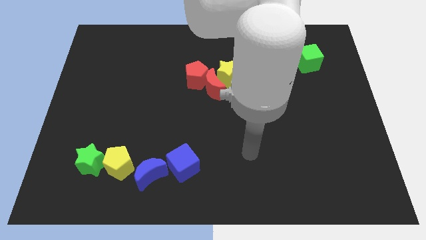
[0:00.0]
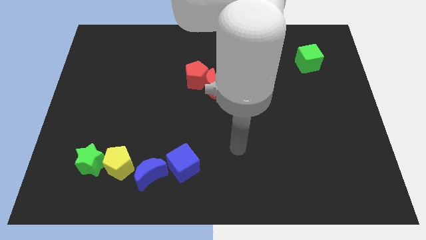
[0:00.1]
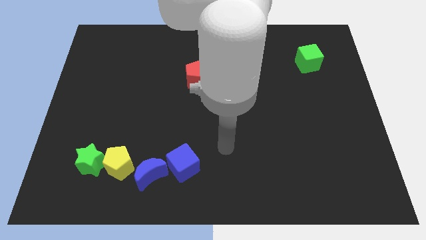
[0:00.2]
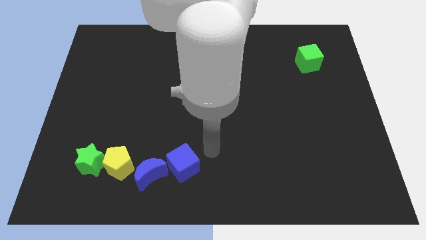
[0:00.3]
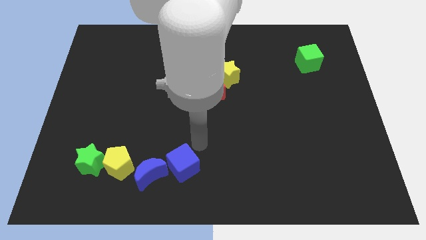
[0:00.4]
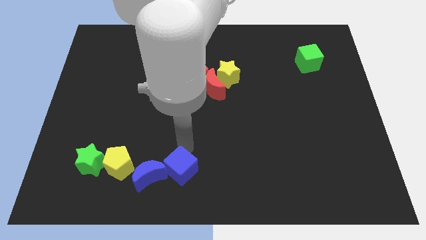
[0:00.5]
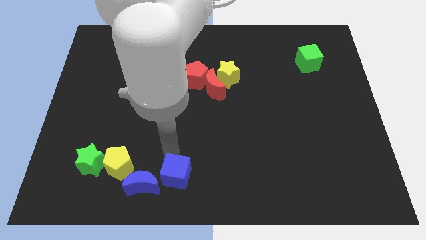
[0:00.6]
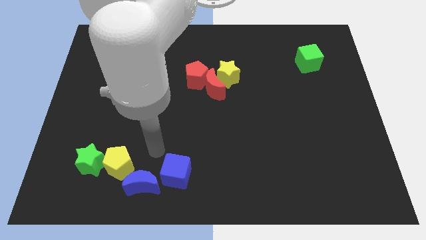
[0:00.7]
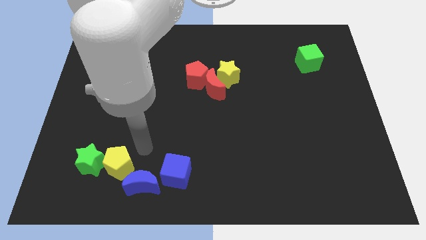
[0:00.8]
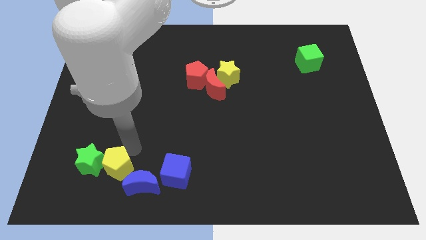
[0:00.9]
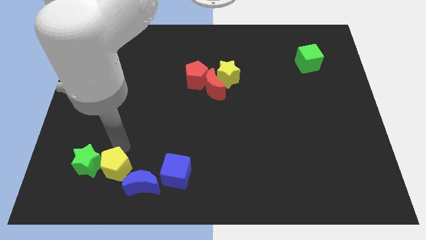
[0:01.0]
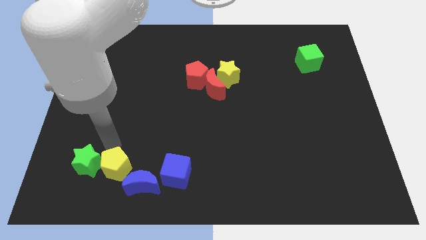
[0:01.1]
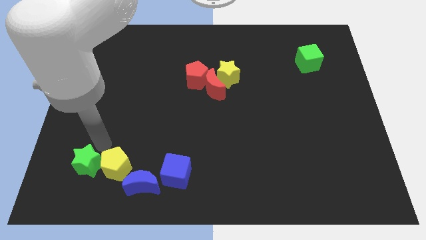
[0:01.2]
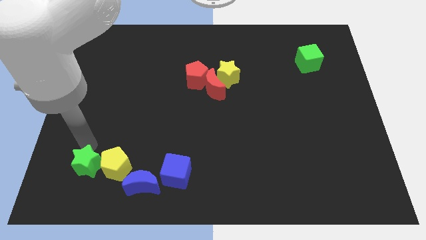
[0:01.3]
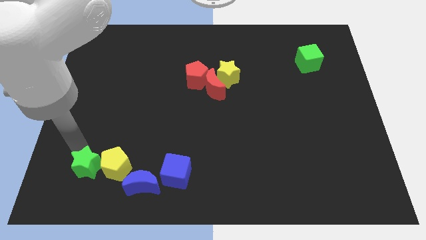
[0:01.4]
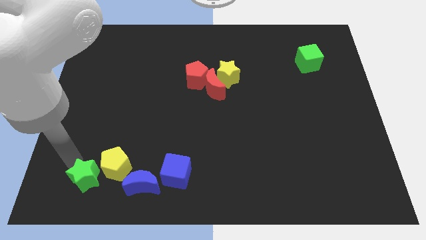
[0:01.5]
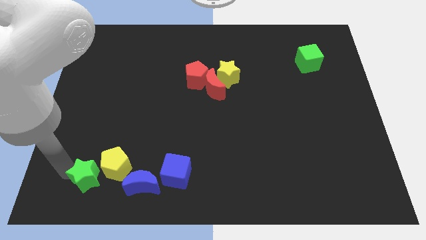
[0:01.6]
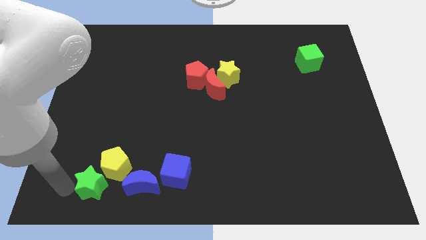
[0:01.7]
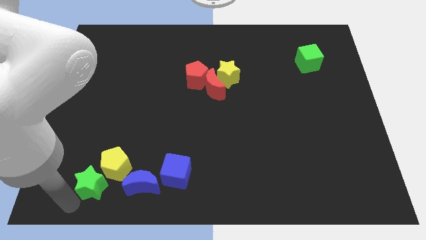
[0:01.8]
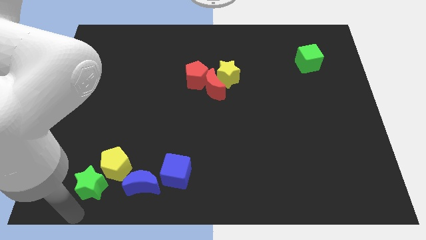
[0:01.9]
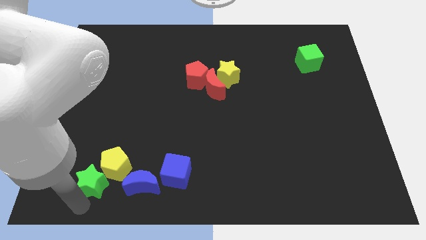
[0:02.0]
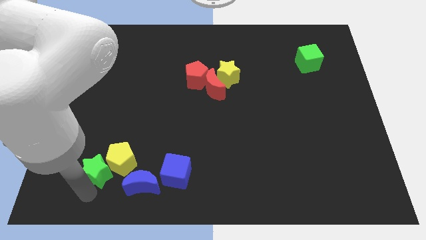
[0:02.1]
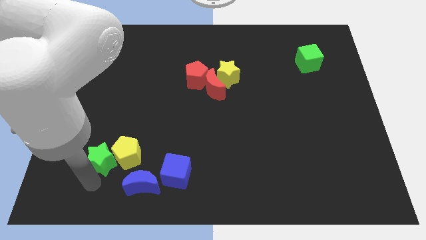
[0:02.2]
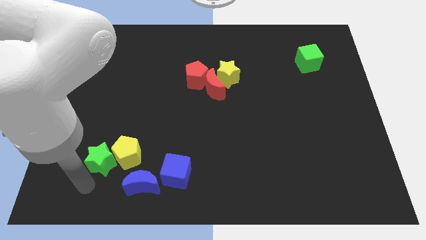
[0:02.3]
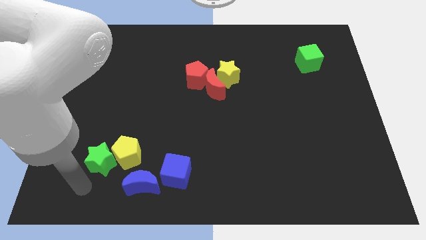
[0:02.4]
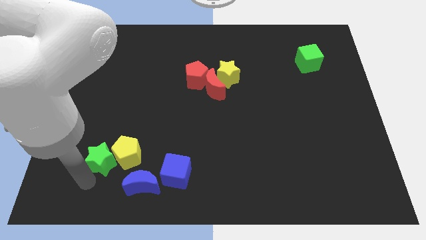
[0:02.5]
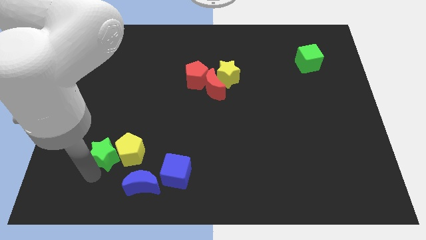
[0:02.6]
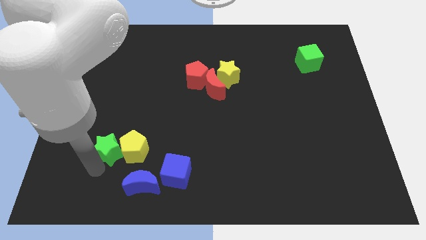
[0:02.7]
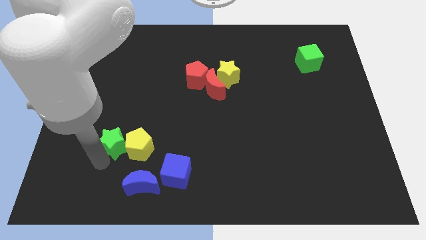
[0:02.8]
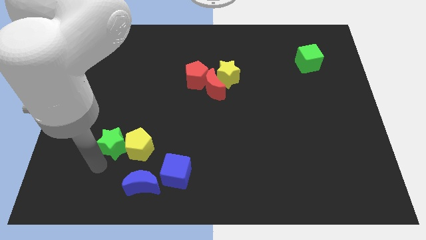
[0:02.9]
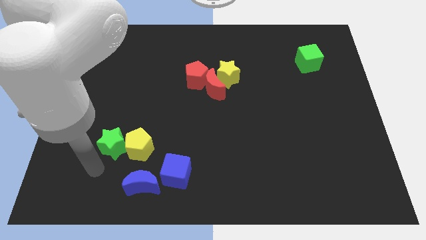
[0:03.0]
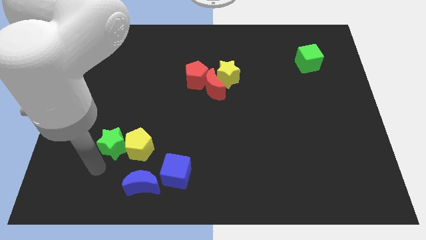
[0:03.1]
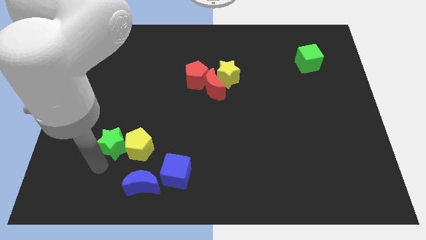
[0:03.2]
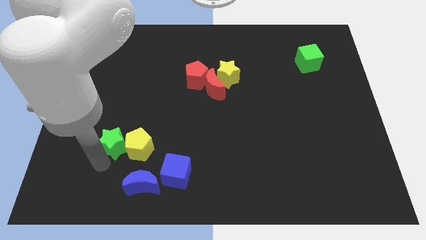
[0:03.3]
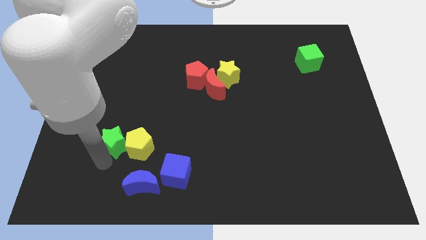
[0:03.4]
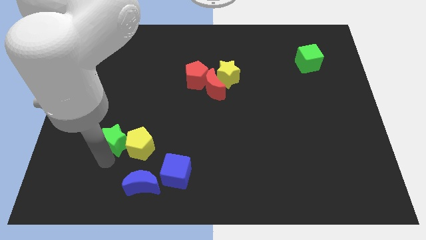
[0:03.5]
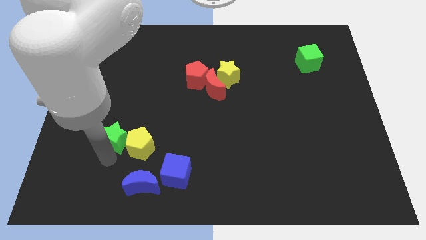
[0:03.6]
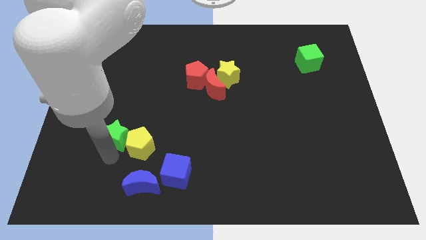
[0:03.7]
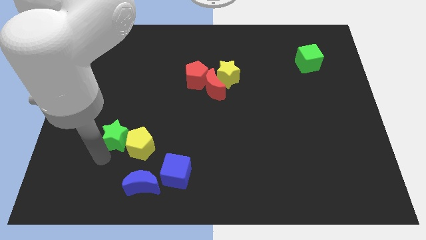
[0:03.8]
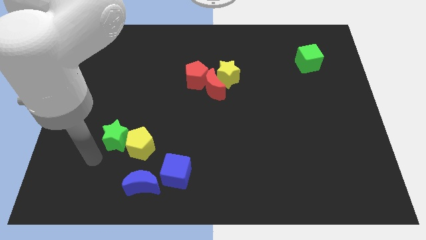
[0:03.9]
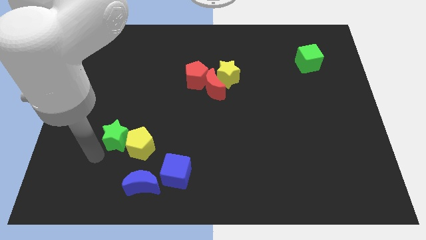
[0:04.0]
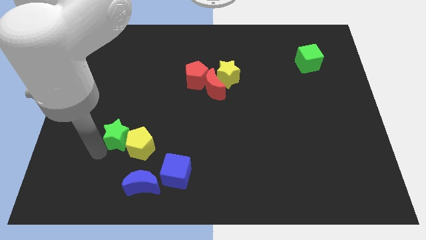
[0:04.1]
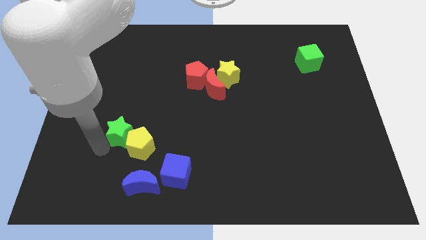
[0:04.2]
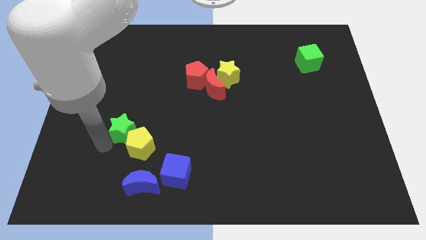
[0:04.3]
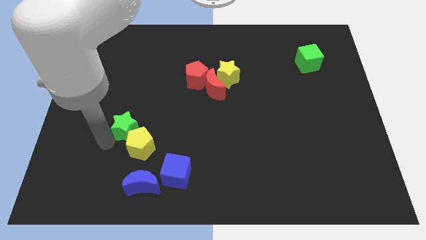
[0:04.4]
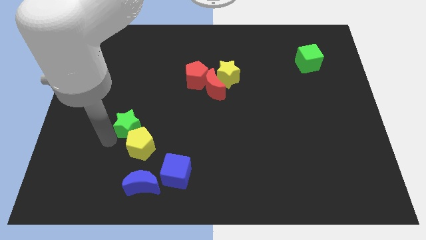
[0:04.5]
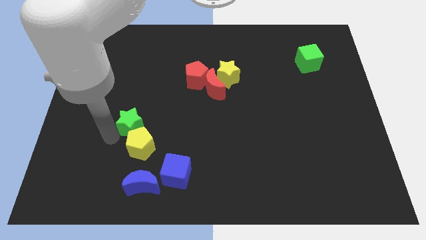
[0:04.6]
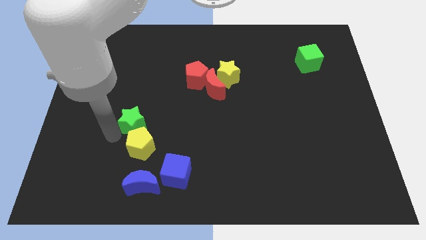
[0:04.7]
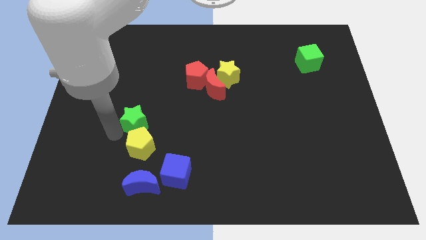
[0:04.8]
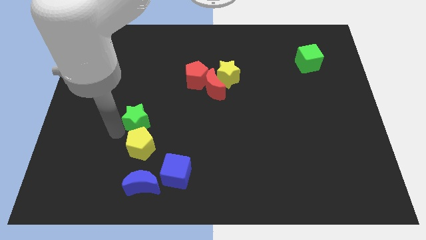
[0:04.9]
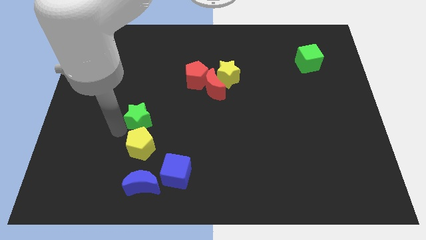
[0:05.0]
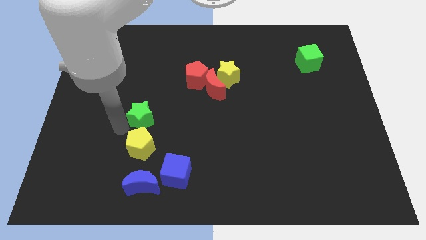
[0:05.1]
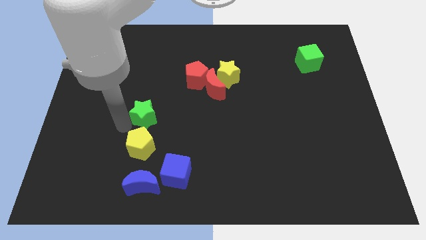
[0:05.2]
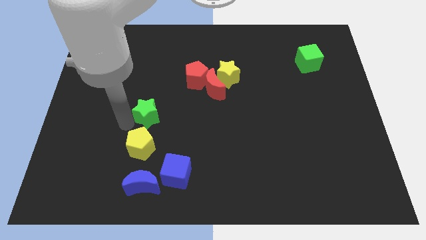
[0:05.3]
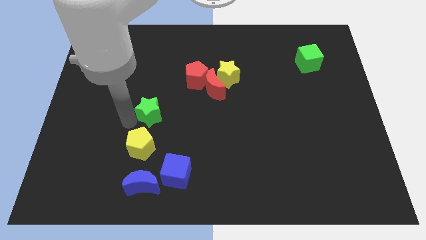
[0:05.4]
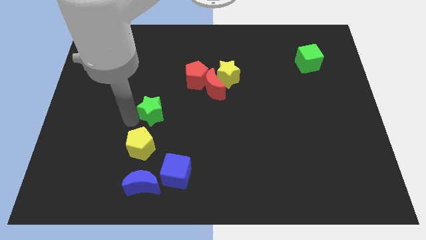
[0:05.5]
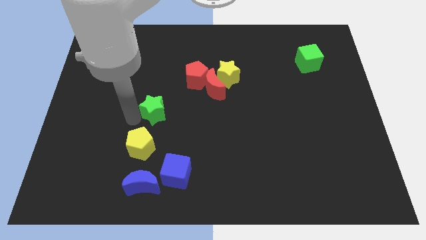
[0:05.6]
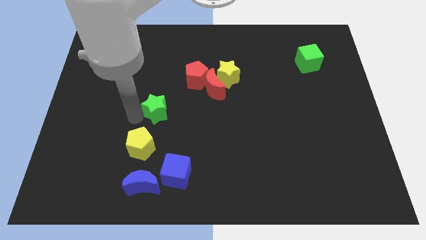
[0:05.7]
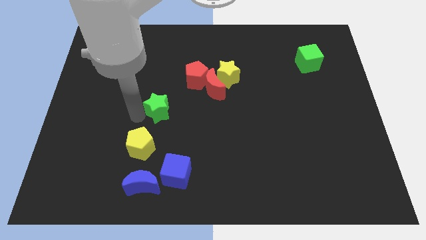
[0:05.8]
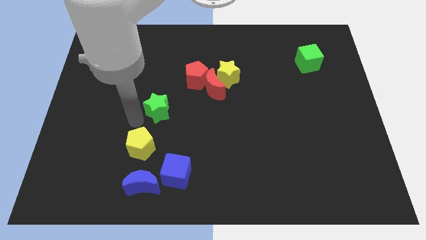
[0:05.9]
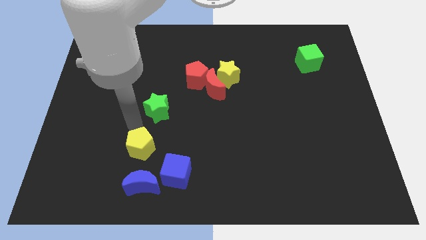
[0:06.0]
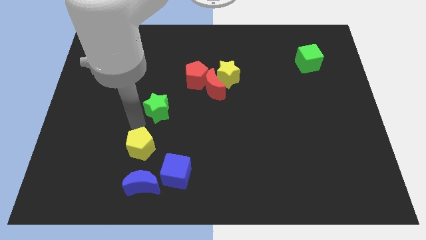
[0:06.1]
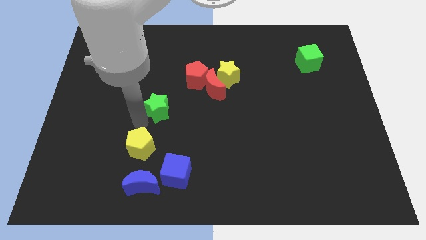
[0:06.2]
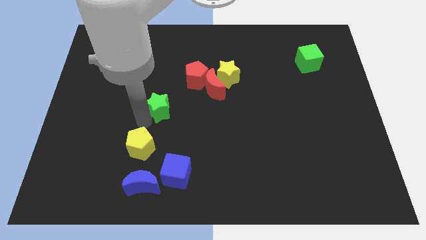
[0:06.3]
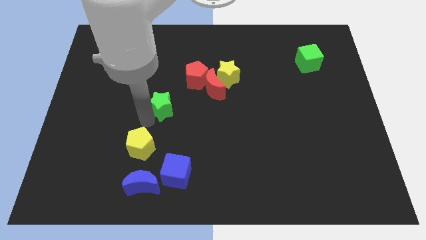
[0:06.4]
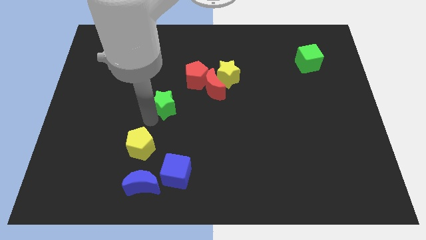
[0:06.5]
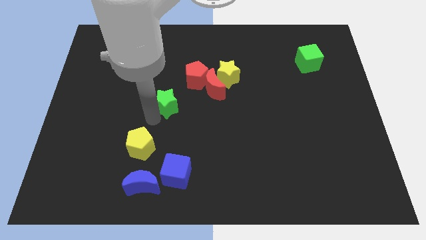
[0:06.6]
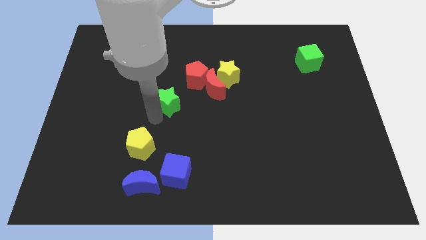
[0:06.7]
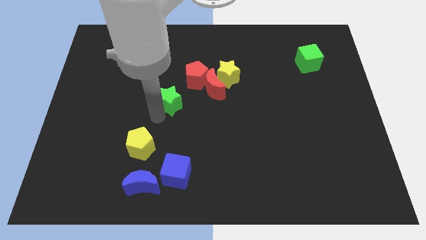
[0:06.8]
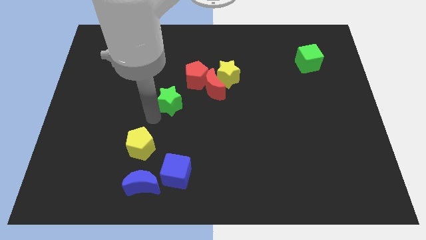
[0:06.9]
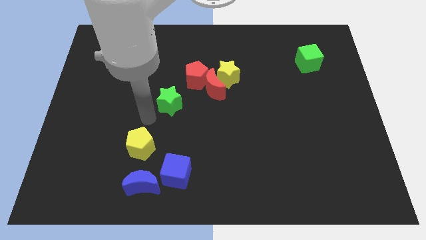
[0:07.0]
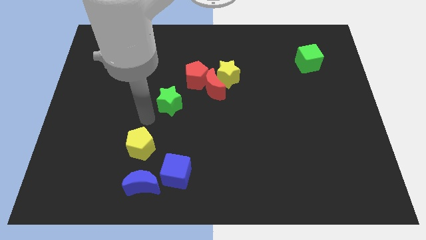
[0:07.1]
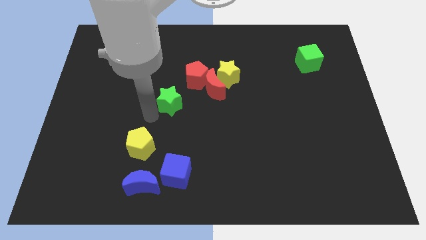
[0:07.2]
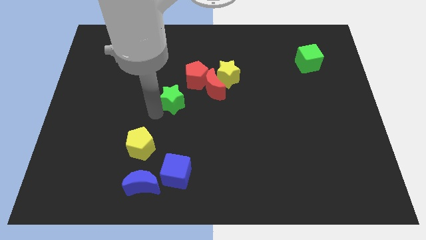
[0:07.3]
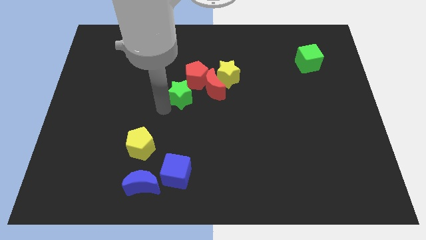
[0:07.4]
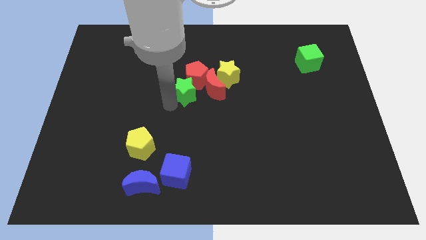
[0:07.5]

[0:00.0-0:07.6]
move the green star towards the red pentagon
